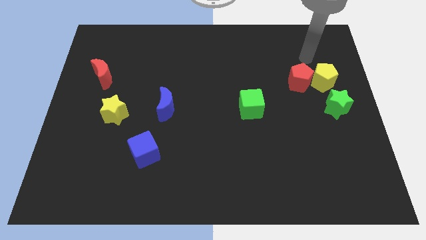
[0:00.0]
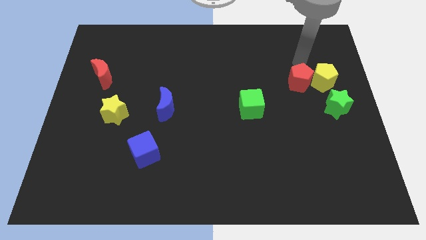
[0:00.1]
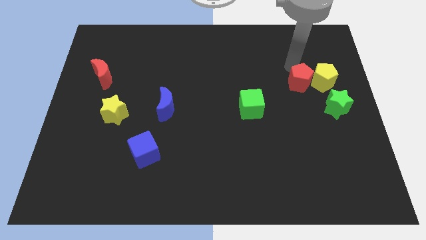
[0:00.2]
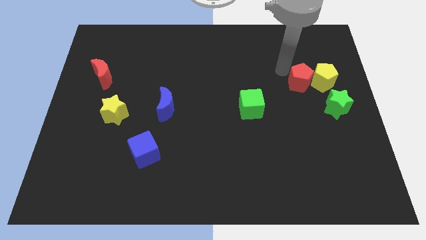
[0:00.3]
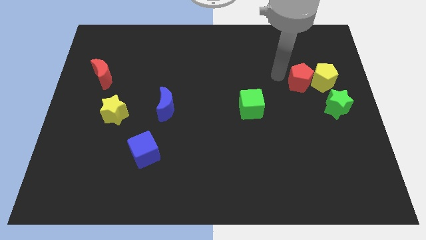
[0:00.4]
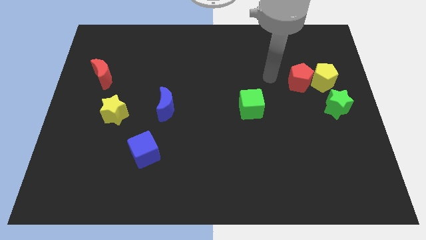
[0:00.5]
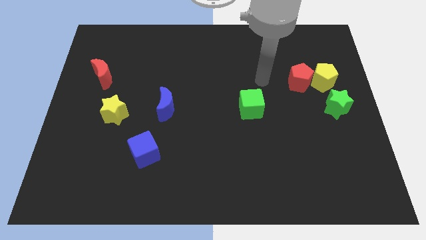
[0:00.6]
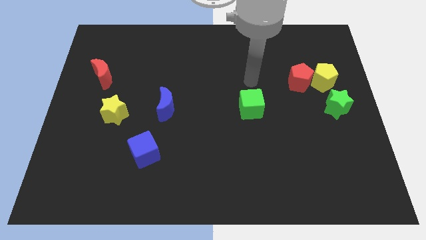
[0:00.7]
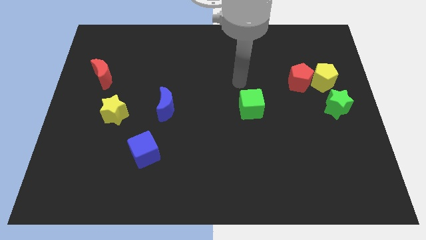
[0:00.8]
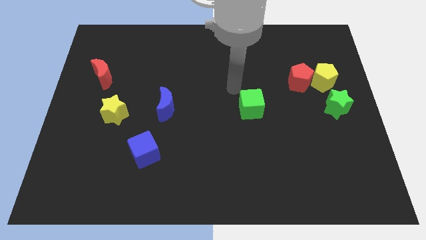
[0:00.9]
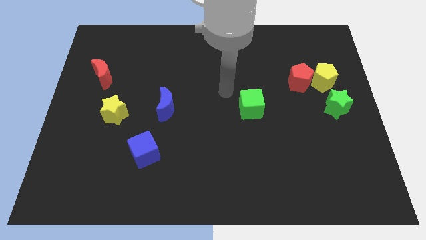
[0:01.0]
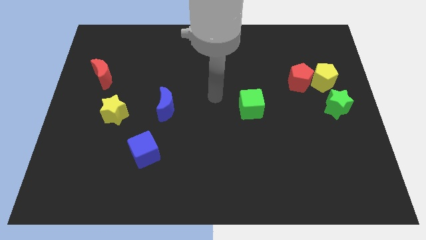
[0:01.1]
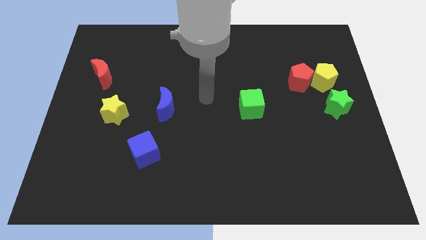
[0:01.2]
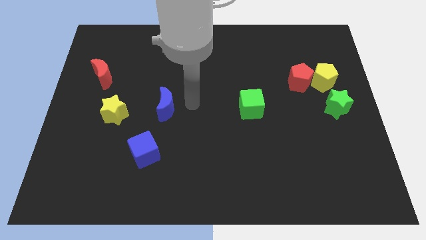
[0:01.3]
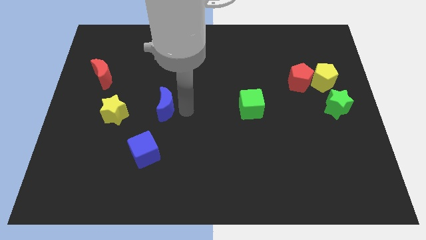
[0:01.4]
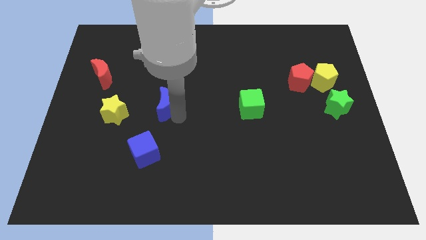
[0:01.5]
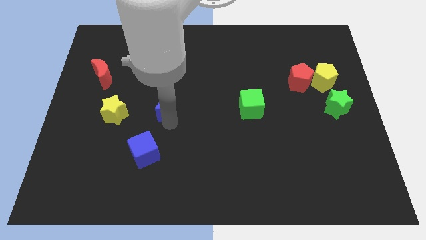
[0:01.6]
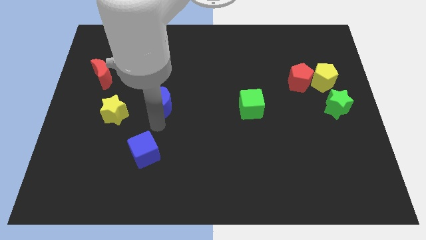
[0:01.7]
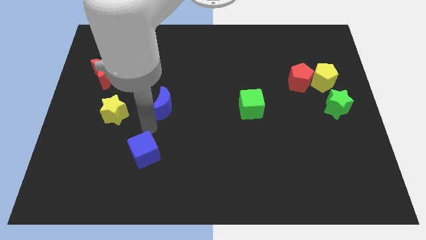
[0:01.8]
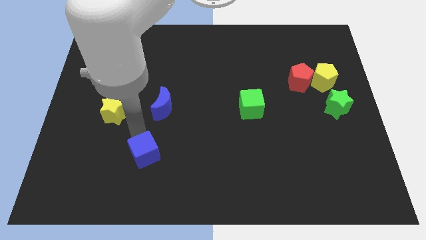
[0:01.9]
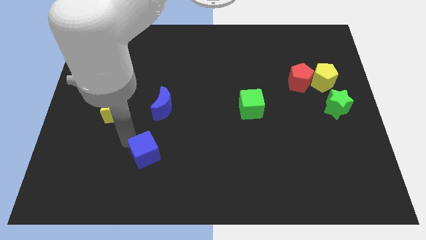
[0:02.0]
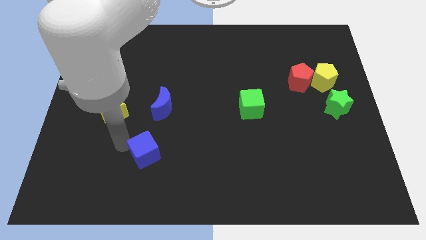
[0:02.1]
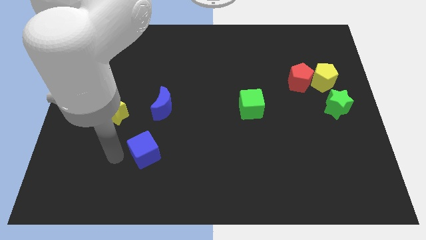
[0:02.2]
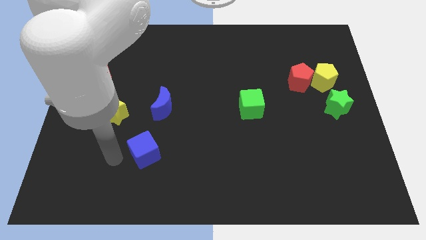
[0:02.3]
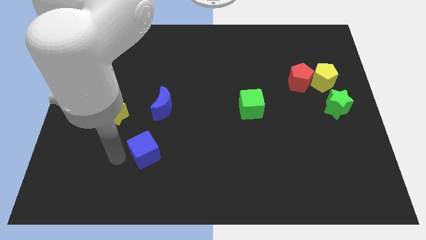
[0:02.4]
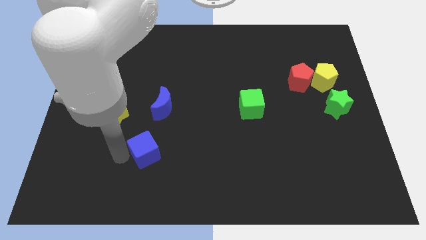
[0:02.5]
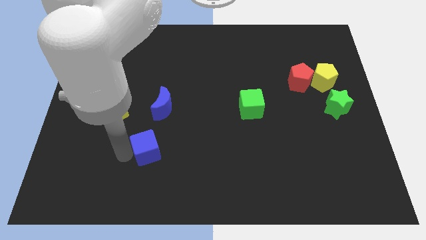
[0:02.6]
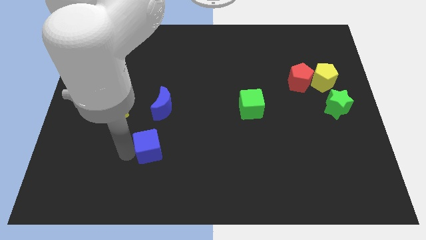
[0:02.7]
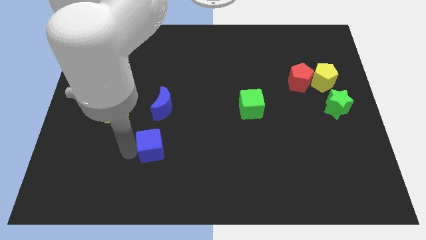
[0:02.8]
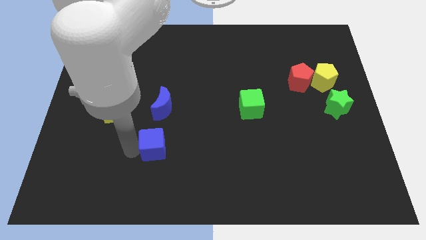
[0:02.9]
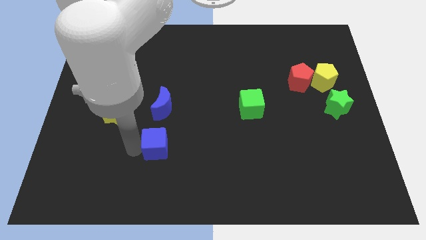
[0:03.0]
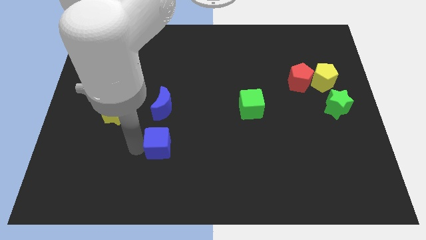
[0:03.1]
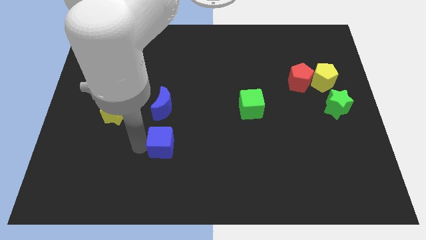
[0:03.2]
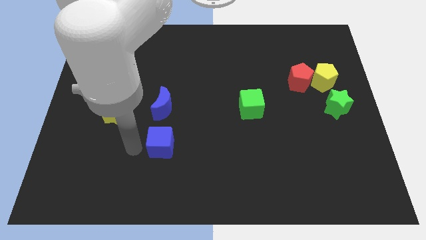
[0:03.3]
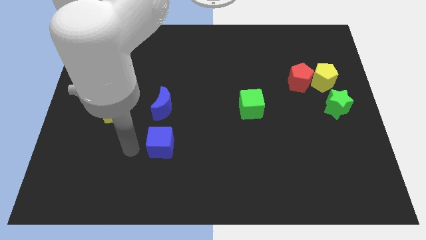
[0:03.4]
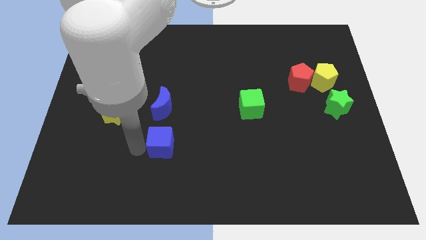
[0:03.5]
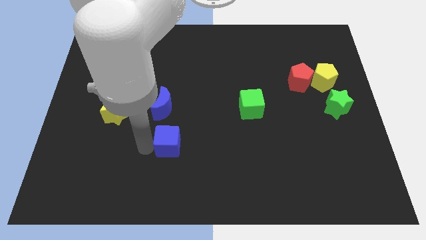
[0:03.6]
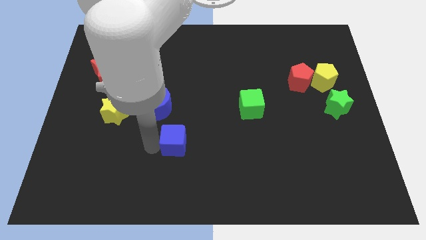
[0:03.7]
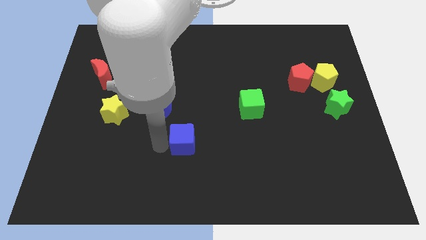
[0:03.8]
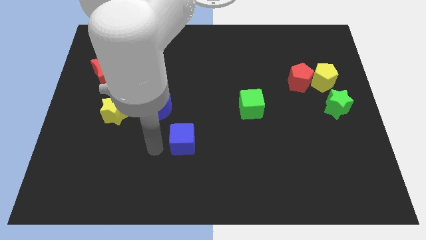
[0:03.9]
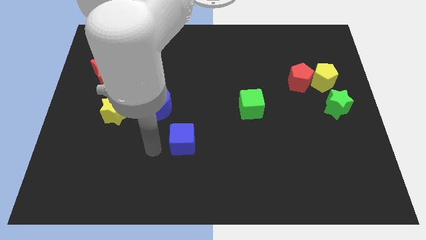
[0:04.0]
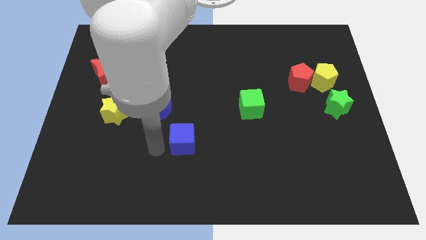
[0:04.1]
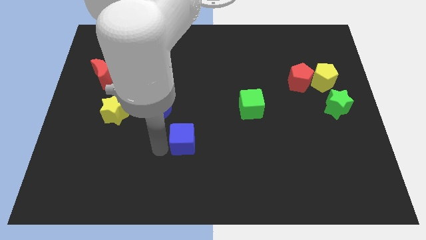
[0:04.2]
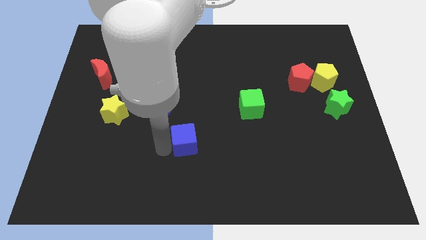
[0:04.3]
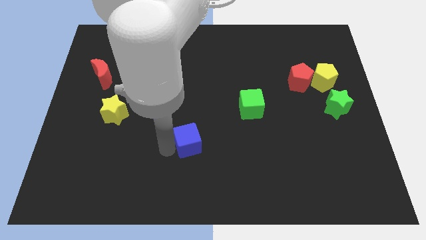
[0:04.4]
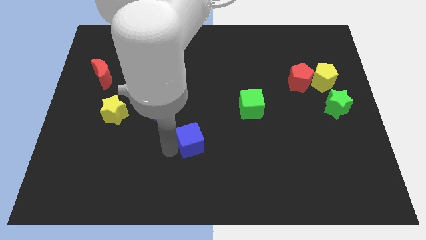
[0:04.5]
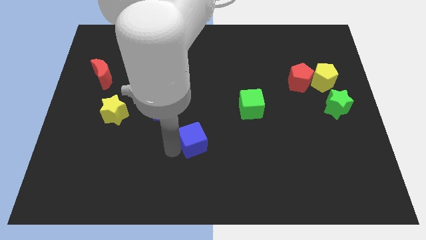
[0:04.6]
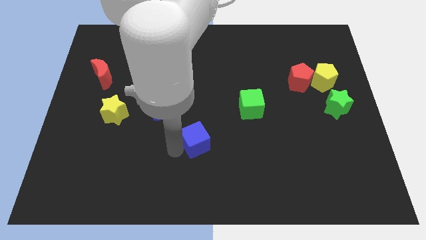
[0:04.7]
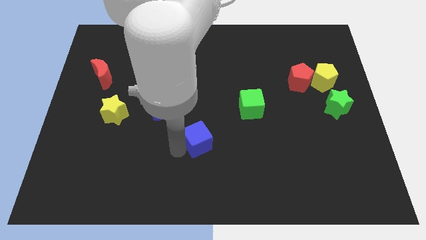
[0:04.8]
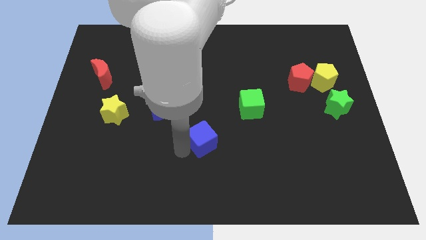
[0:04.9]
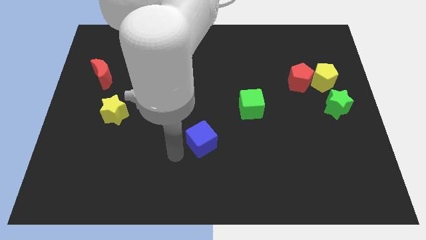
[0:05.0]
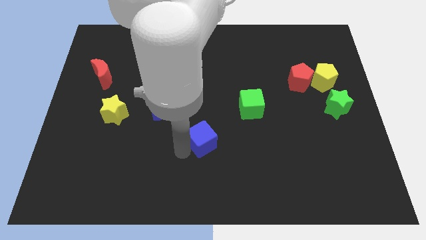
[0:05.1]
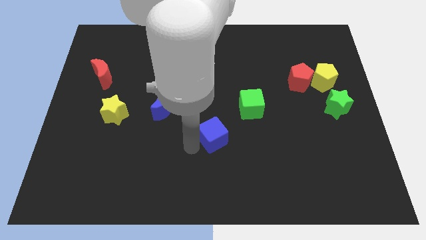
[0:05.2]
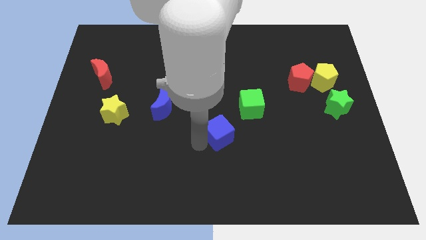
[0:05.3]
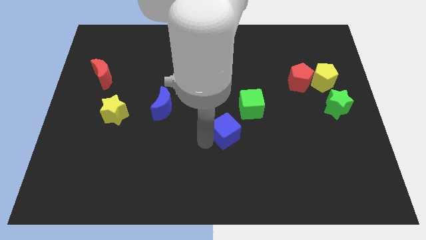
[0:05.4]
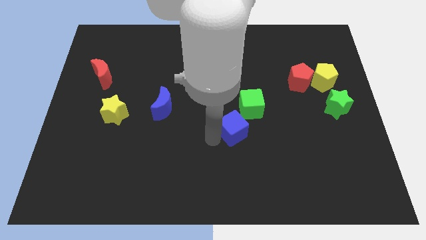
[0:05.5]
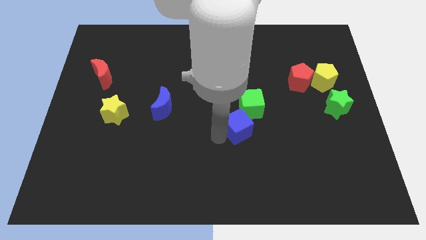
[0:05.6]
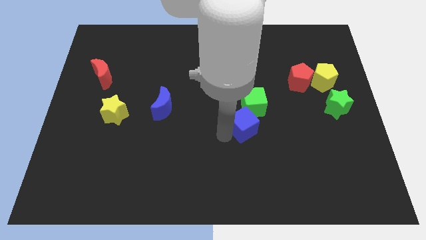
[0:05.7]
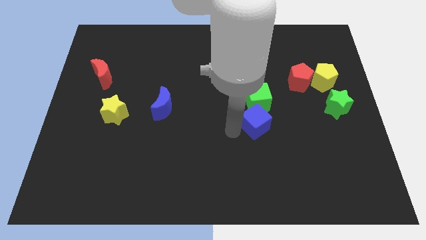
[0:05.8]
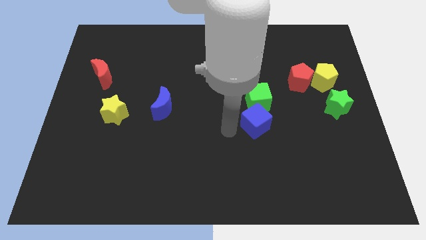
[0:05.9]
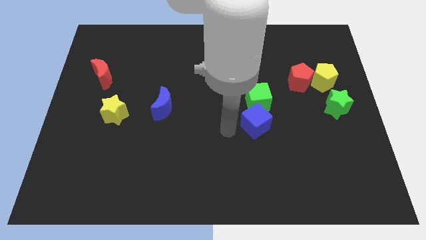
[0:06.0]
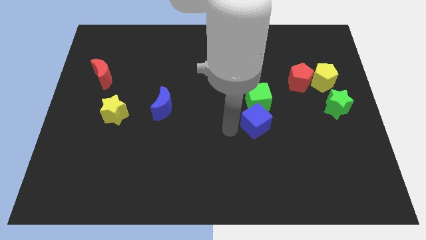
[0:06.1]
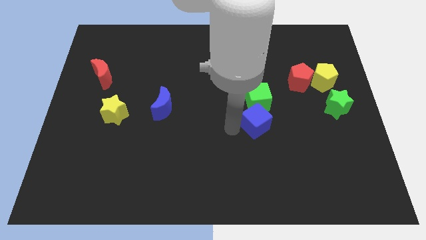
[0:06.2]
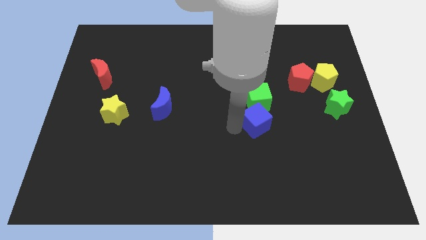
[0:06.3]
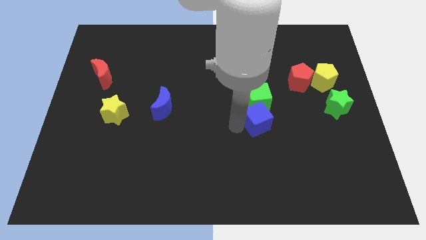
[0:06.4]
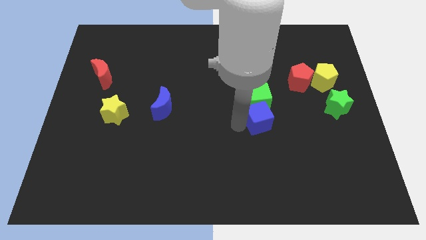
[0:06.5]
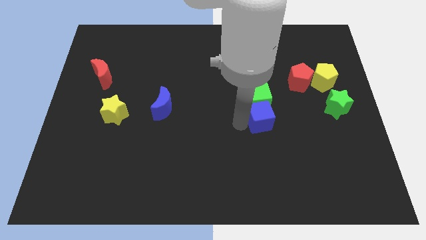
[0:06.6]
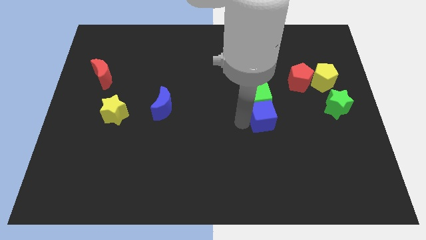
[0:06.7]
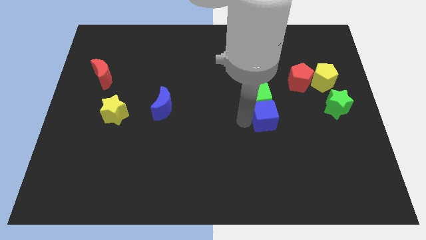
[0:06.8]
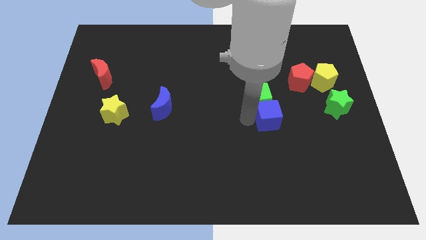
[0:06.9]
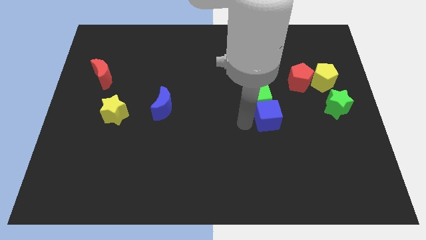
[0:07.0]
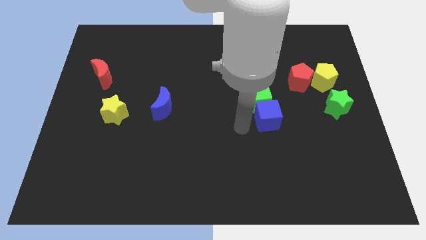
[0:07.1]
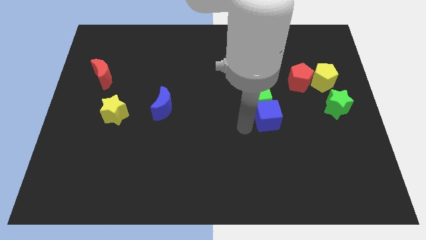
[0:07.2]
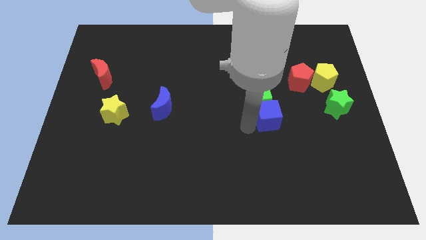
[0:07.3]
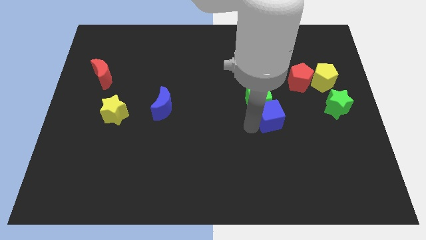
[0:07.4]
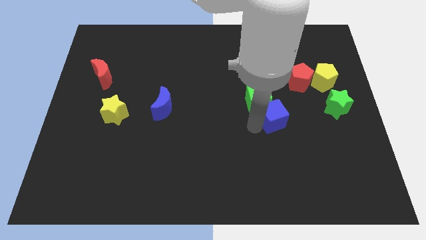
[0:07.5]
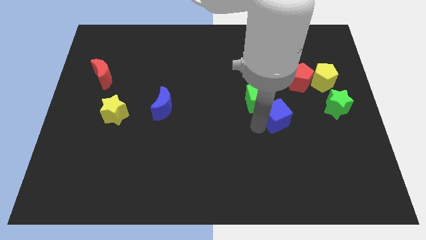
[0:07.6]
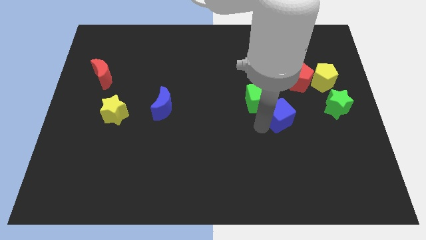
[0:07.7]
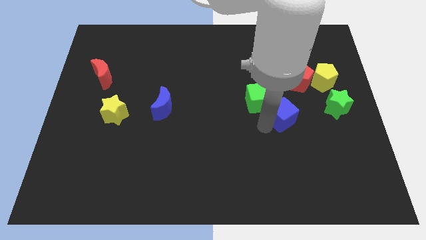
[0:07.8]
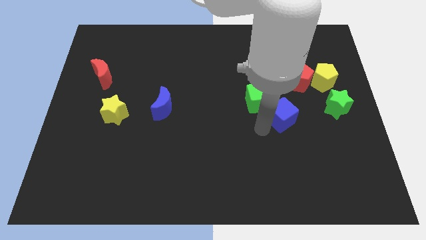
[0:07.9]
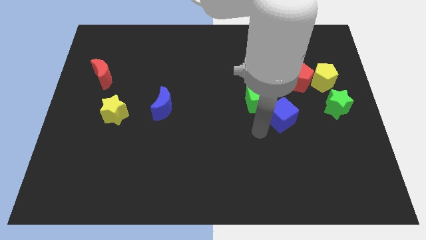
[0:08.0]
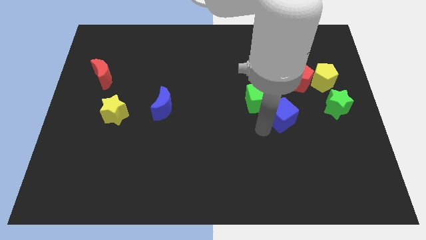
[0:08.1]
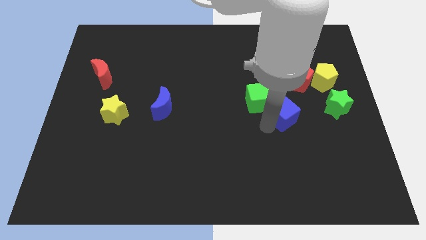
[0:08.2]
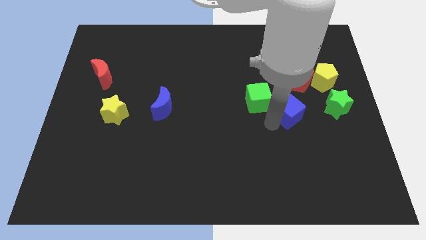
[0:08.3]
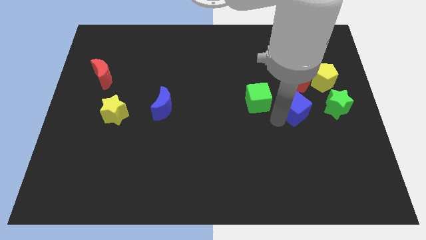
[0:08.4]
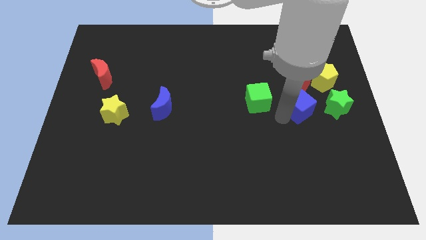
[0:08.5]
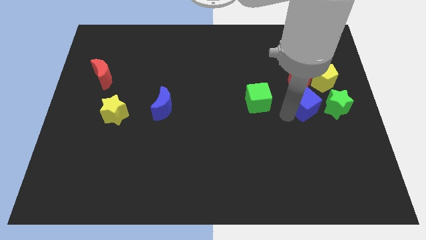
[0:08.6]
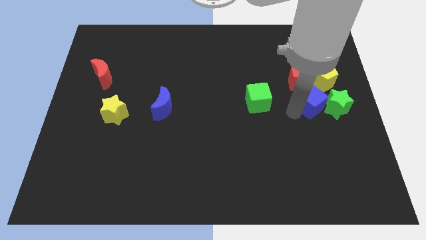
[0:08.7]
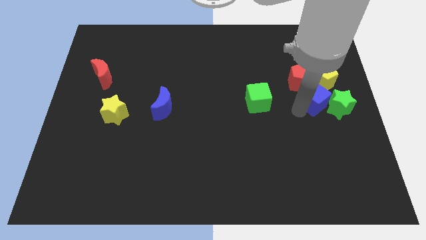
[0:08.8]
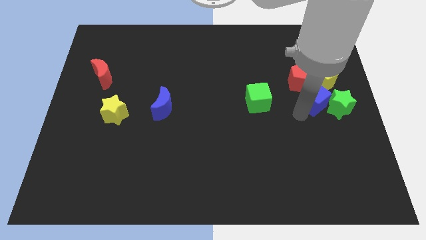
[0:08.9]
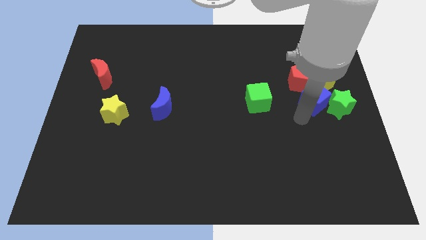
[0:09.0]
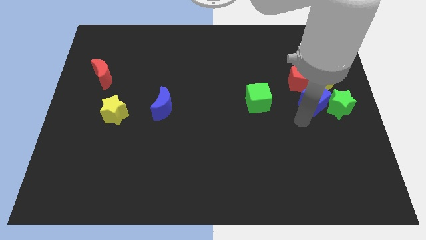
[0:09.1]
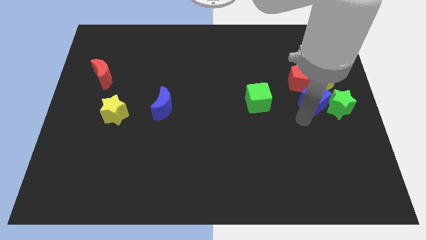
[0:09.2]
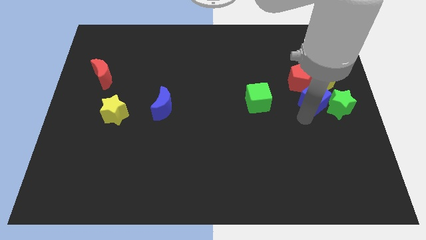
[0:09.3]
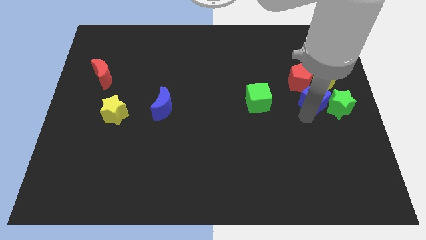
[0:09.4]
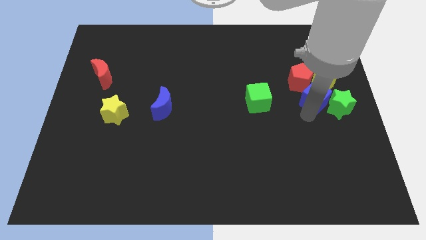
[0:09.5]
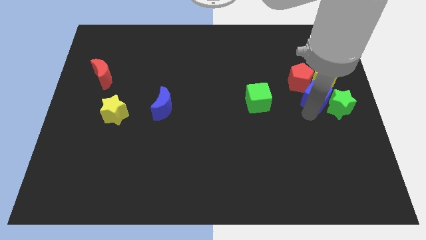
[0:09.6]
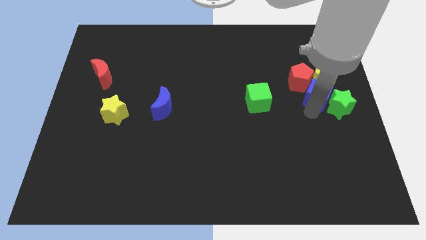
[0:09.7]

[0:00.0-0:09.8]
slide the blue cube close to the yellow pentagon
